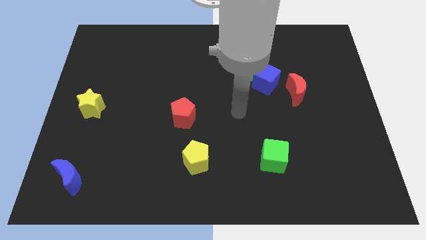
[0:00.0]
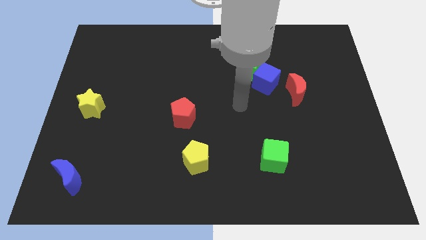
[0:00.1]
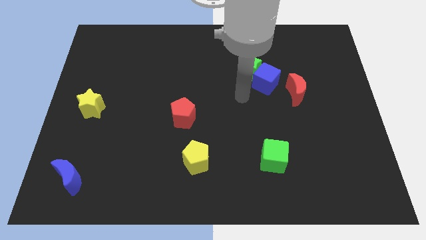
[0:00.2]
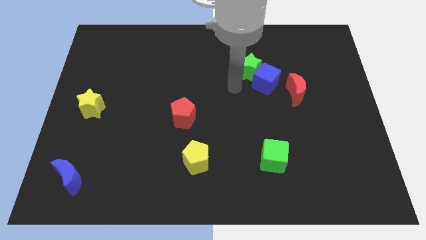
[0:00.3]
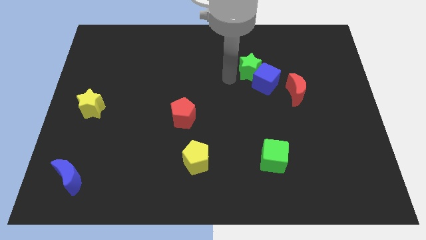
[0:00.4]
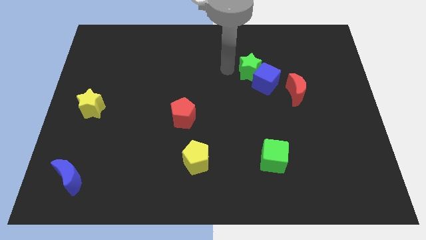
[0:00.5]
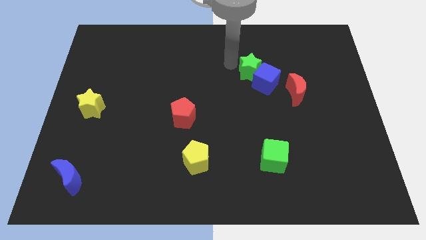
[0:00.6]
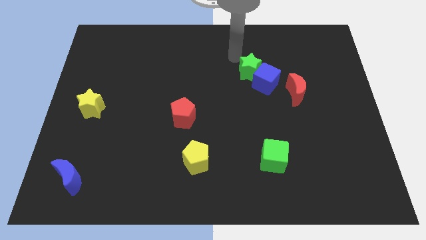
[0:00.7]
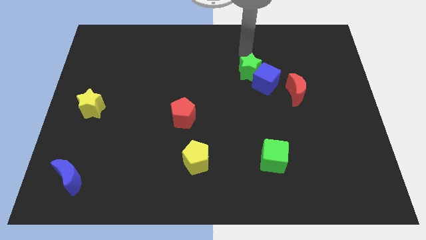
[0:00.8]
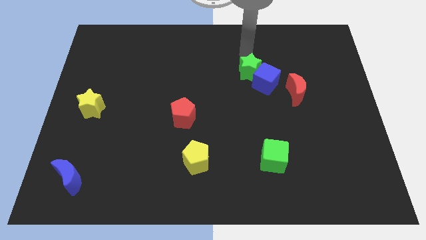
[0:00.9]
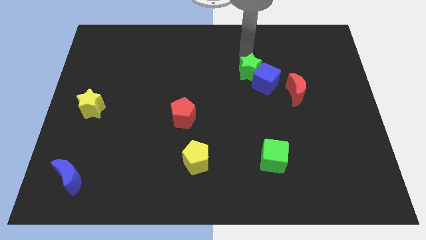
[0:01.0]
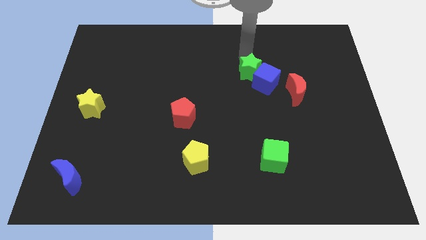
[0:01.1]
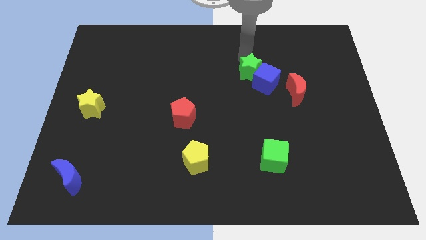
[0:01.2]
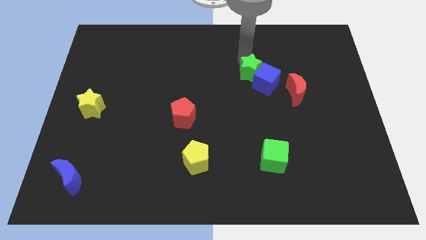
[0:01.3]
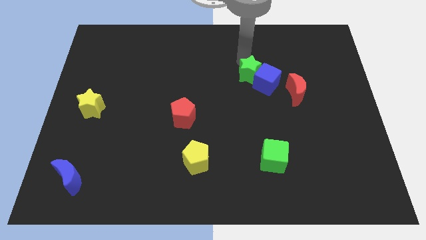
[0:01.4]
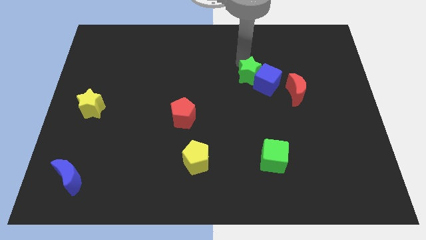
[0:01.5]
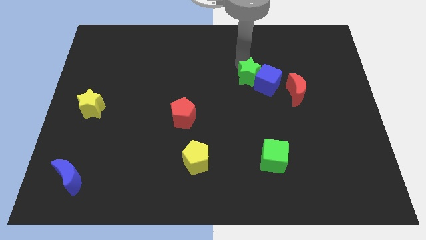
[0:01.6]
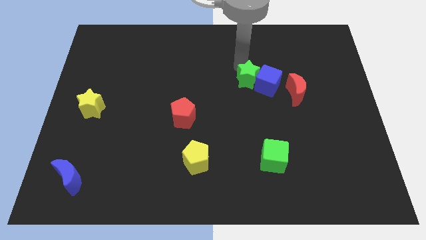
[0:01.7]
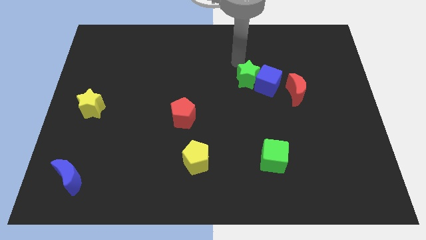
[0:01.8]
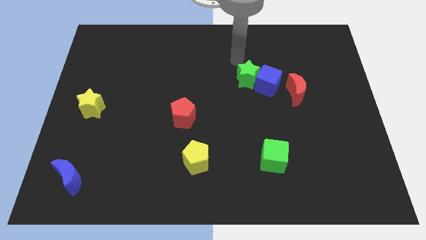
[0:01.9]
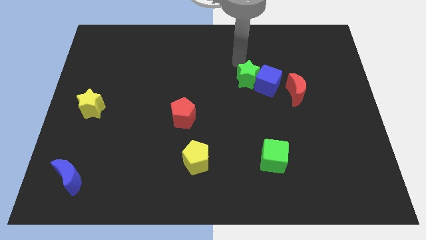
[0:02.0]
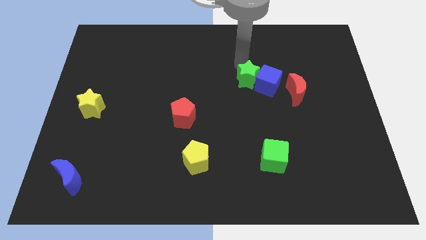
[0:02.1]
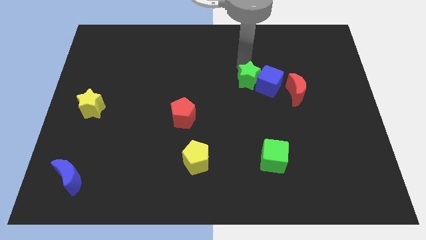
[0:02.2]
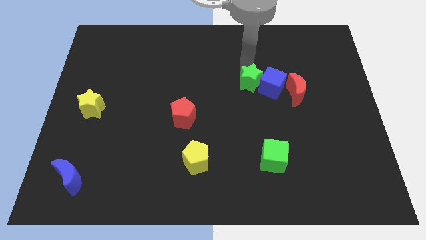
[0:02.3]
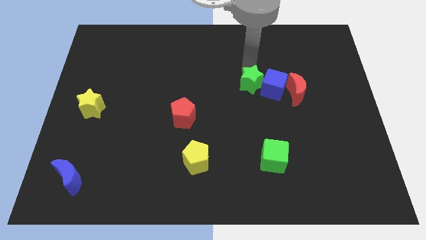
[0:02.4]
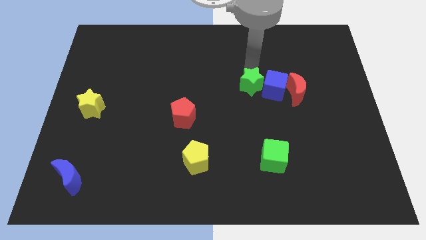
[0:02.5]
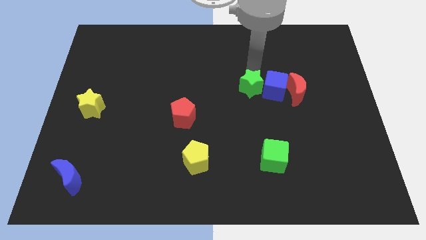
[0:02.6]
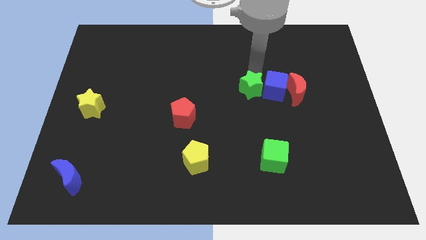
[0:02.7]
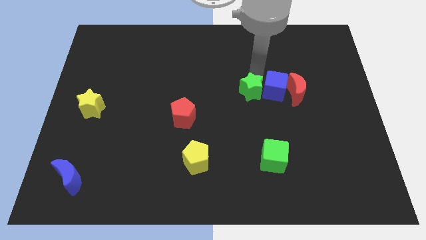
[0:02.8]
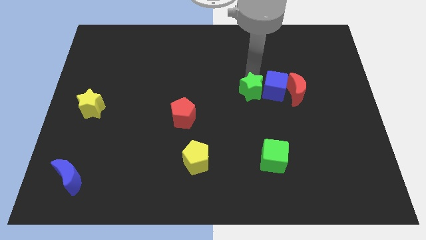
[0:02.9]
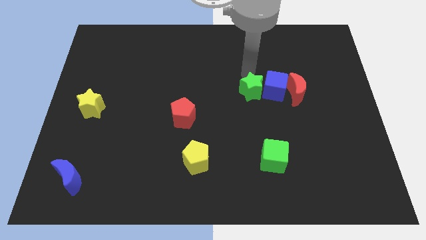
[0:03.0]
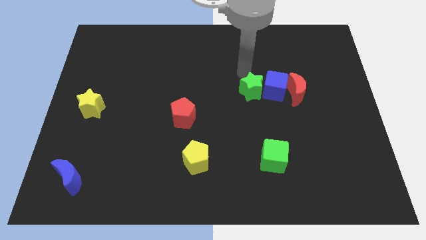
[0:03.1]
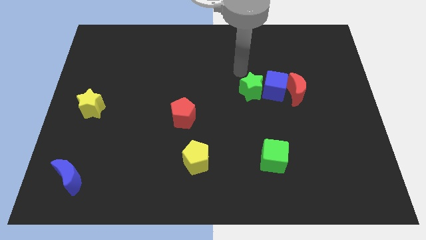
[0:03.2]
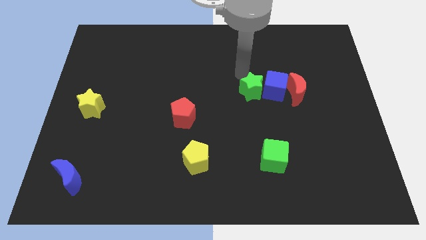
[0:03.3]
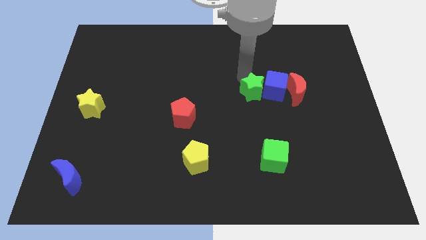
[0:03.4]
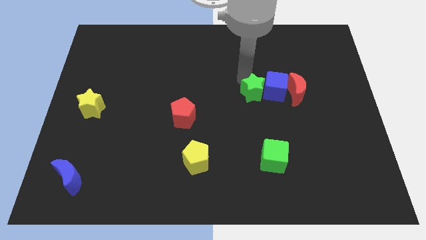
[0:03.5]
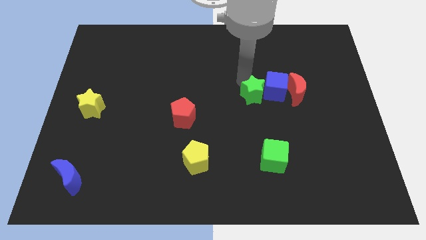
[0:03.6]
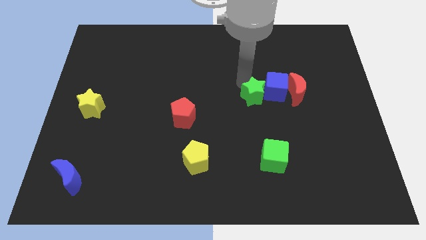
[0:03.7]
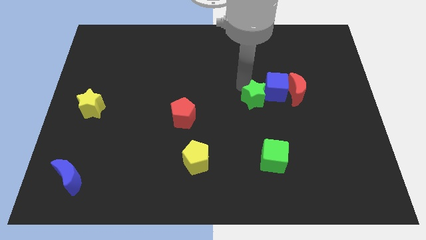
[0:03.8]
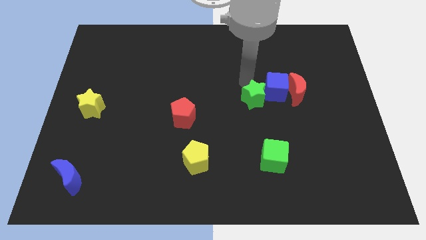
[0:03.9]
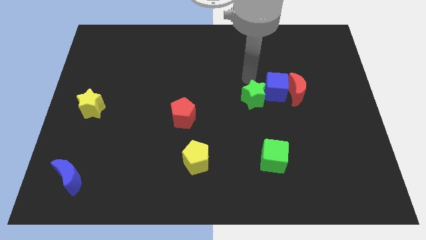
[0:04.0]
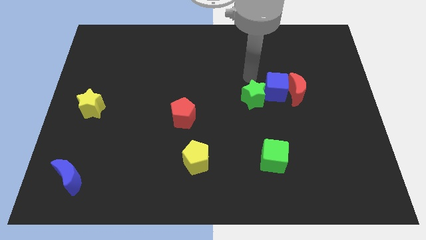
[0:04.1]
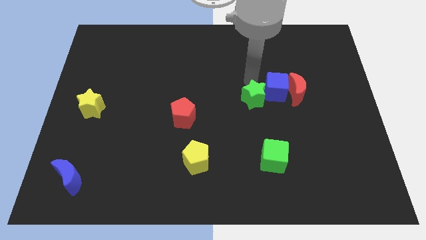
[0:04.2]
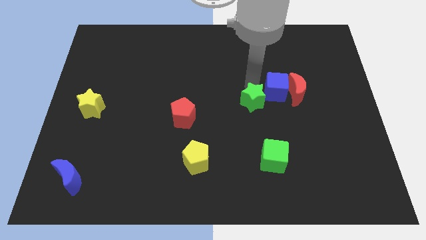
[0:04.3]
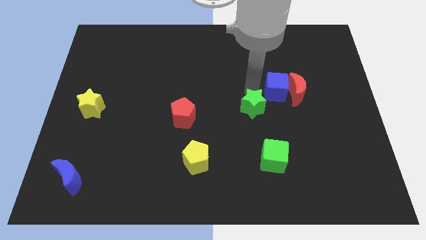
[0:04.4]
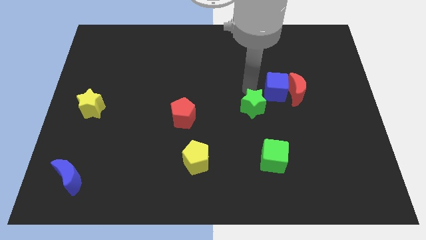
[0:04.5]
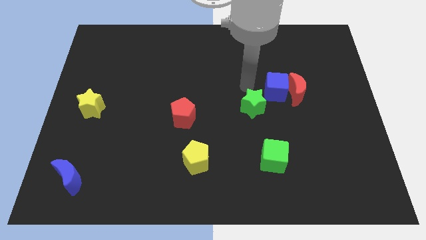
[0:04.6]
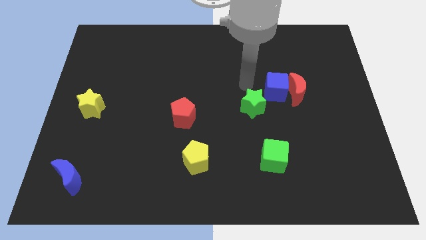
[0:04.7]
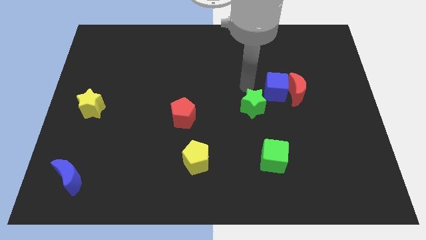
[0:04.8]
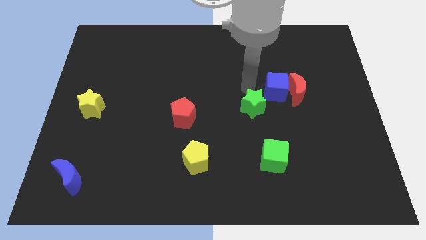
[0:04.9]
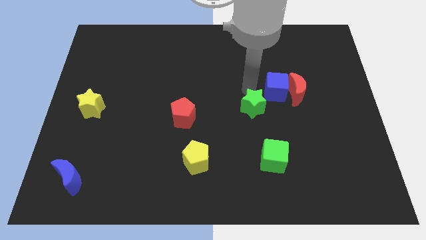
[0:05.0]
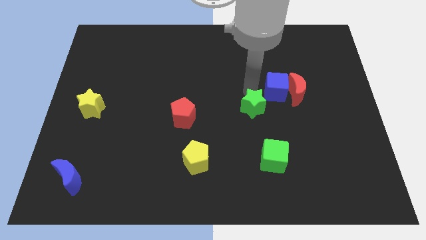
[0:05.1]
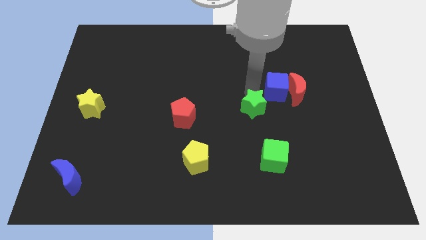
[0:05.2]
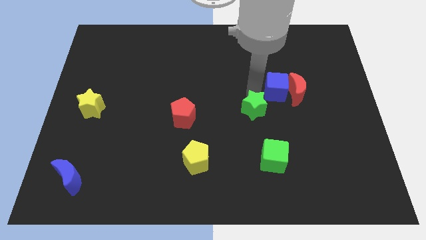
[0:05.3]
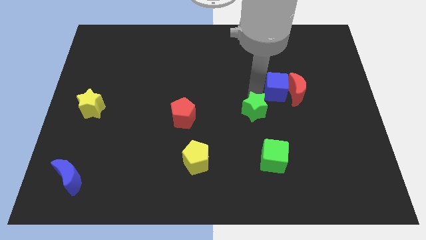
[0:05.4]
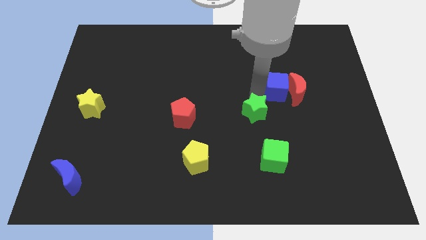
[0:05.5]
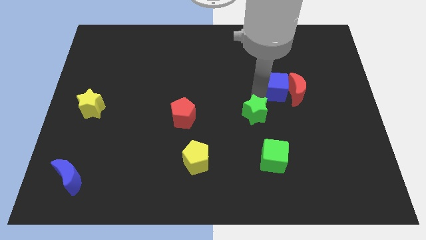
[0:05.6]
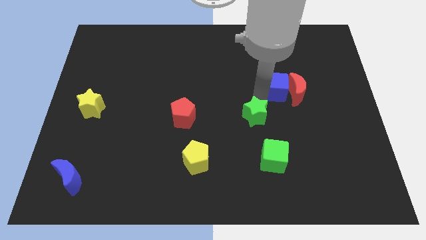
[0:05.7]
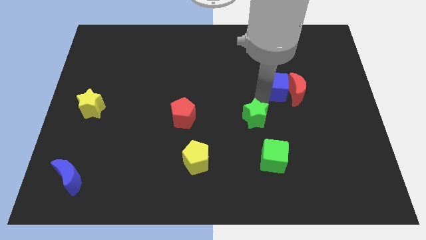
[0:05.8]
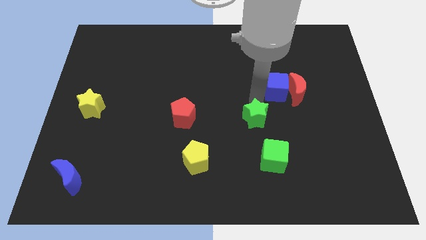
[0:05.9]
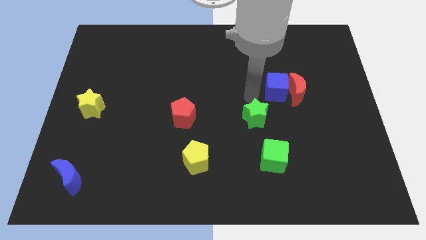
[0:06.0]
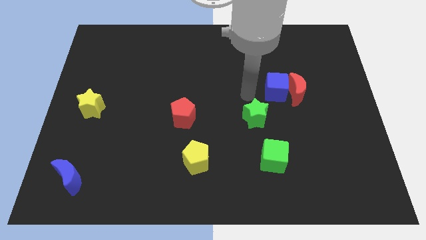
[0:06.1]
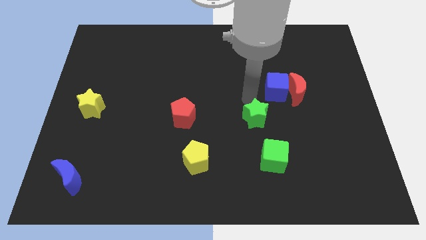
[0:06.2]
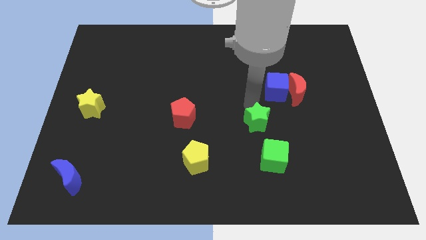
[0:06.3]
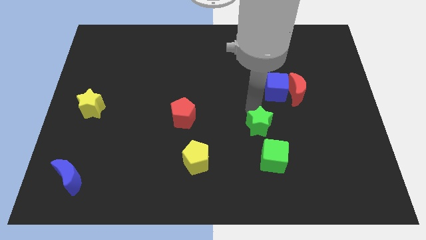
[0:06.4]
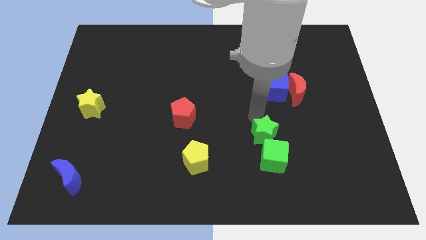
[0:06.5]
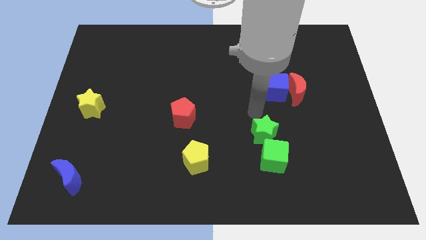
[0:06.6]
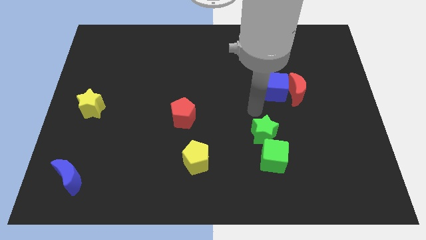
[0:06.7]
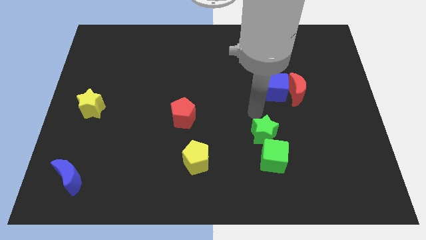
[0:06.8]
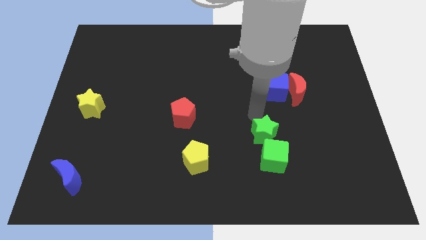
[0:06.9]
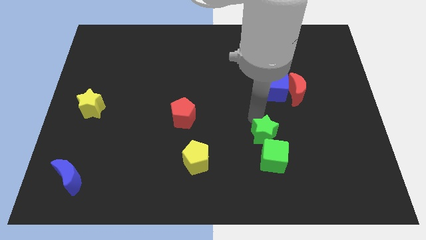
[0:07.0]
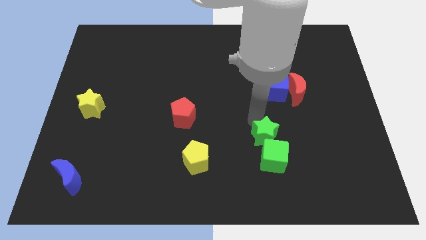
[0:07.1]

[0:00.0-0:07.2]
move the green star to the green cube

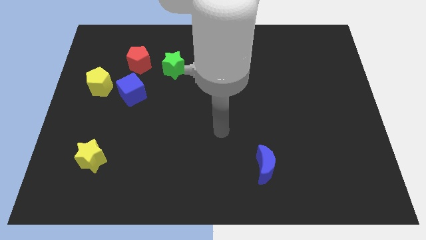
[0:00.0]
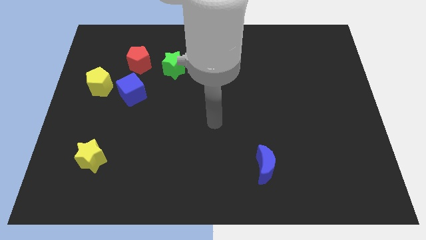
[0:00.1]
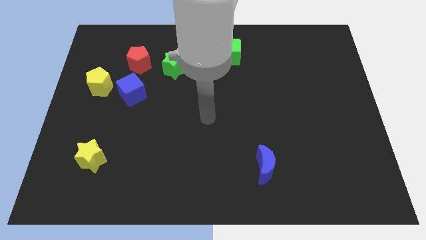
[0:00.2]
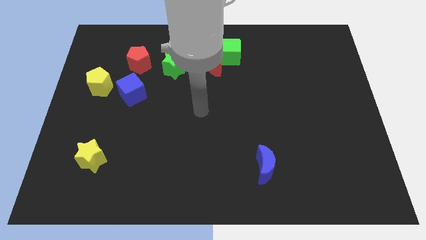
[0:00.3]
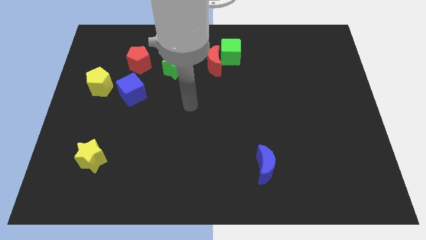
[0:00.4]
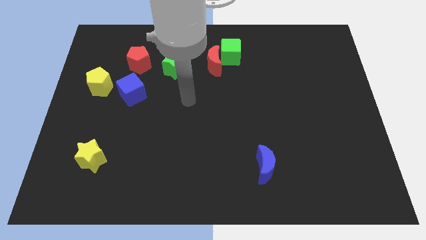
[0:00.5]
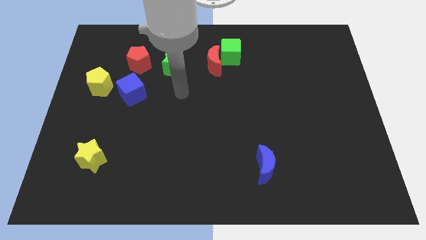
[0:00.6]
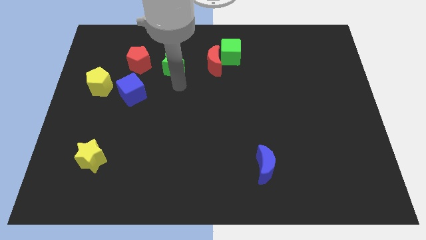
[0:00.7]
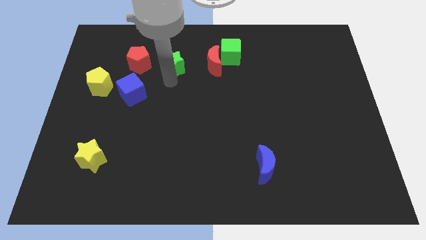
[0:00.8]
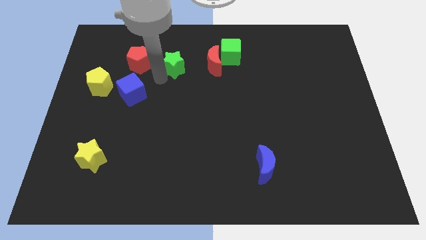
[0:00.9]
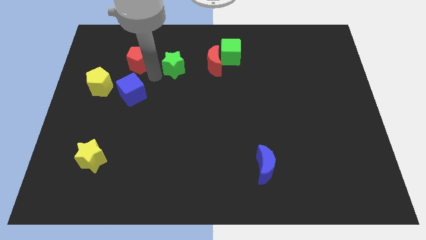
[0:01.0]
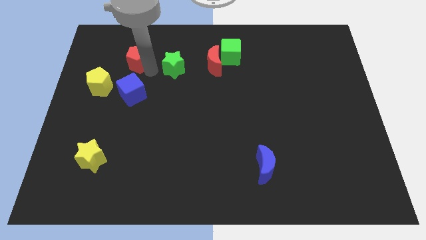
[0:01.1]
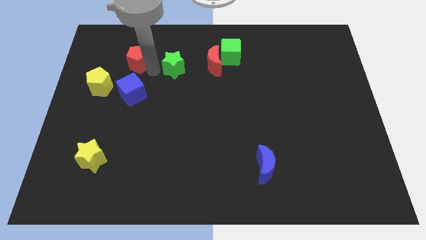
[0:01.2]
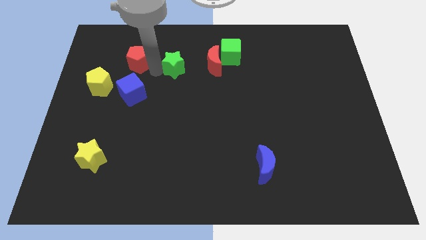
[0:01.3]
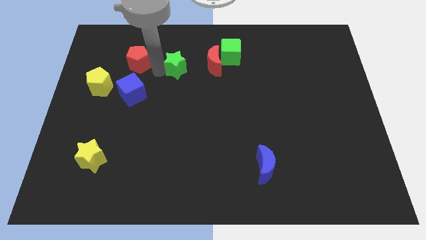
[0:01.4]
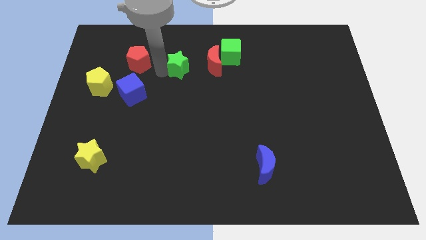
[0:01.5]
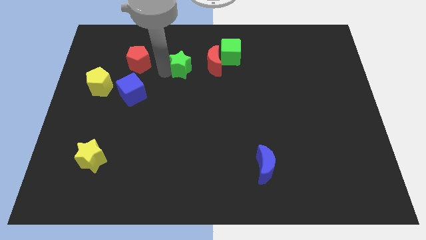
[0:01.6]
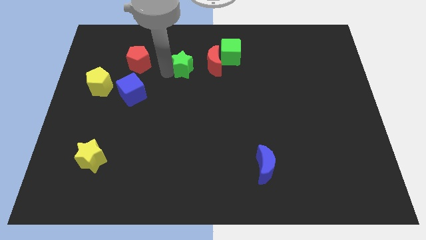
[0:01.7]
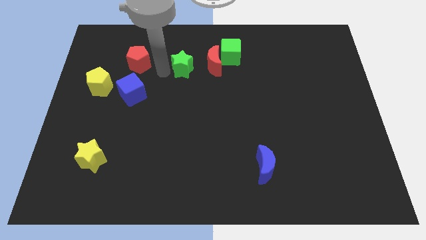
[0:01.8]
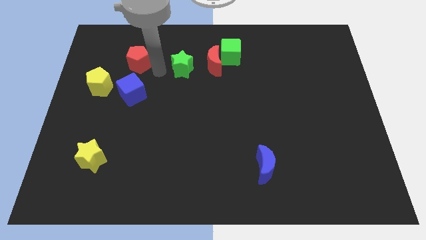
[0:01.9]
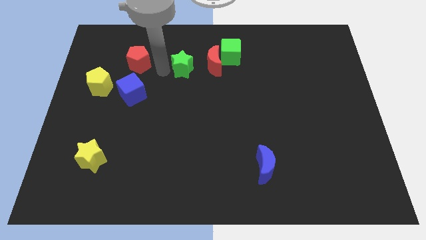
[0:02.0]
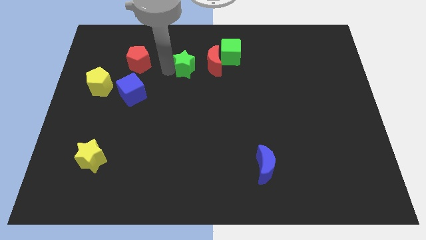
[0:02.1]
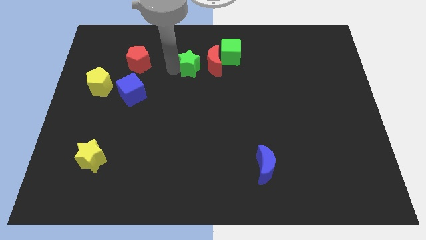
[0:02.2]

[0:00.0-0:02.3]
slide the green star towards the red moon
